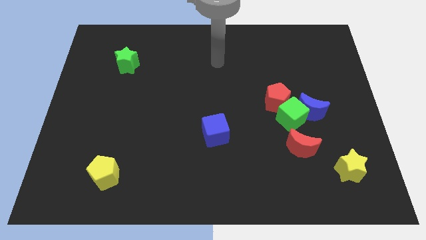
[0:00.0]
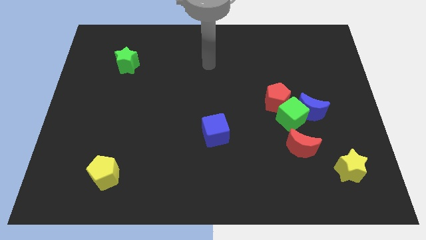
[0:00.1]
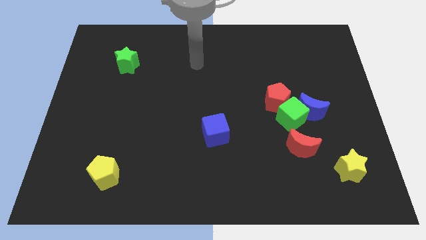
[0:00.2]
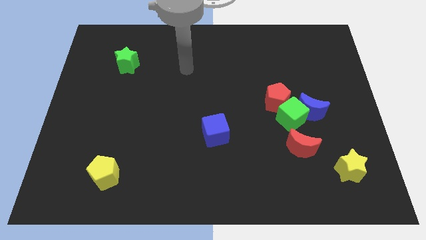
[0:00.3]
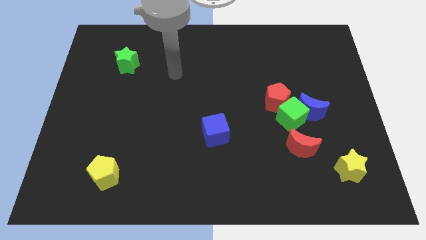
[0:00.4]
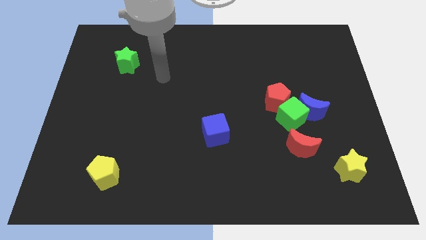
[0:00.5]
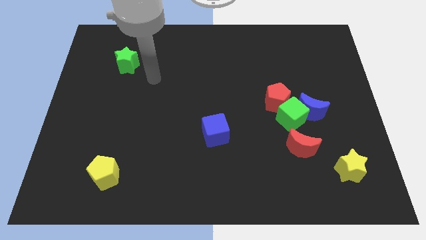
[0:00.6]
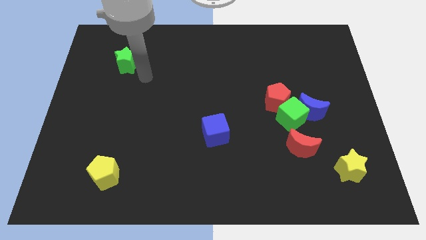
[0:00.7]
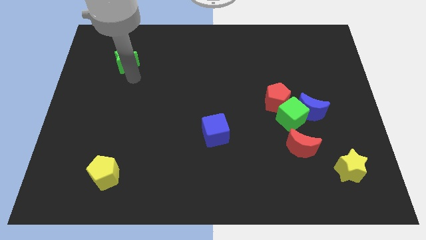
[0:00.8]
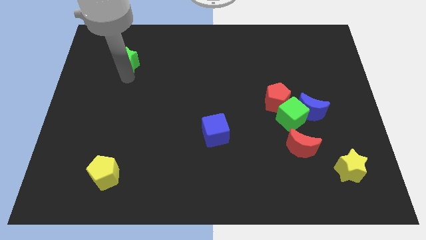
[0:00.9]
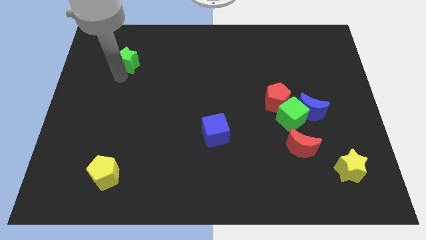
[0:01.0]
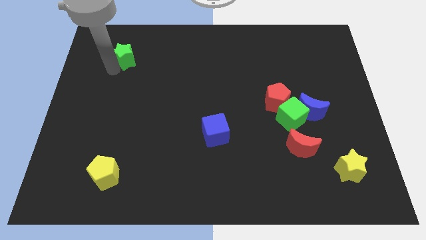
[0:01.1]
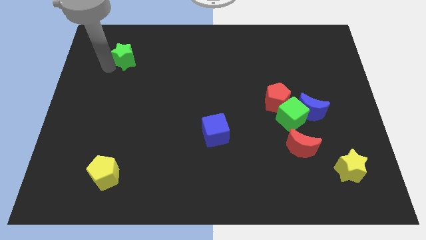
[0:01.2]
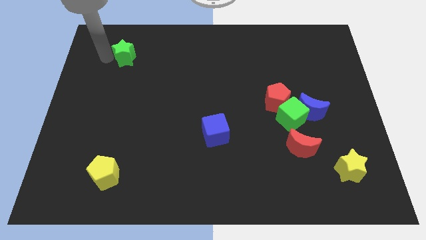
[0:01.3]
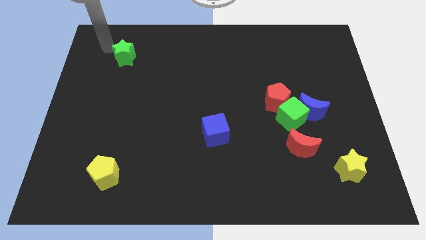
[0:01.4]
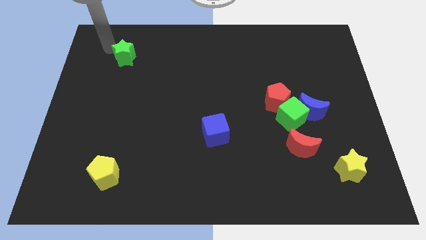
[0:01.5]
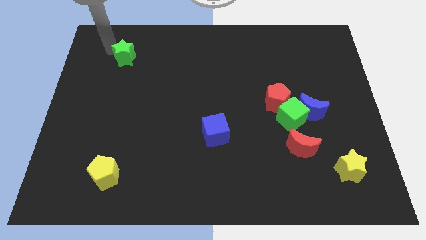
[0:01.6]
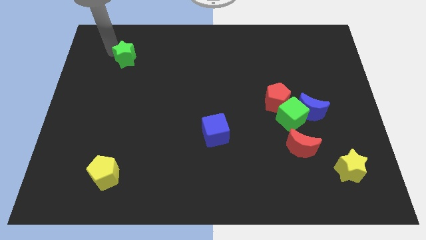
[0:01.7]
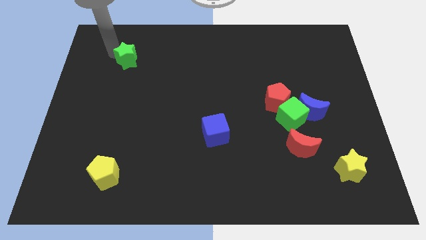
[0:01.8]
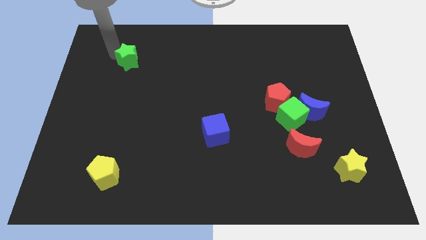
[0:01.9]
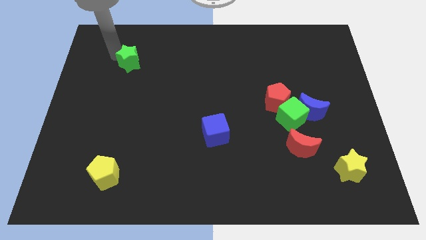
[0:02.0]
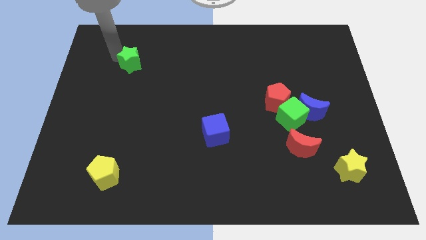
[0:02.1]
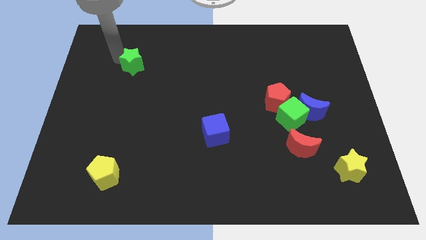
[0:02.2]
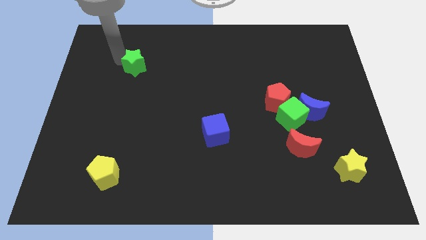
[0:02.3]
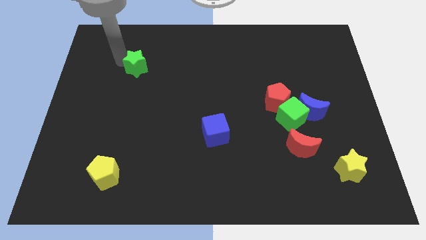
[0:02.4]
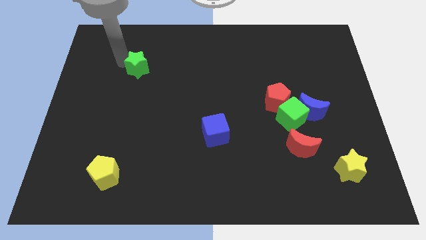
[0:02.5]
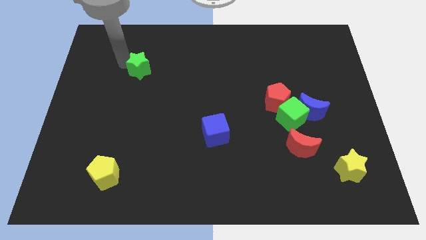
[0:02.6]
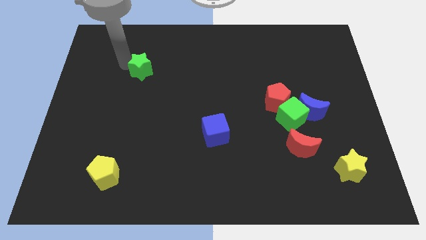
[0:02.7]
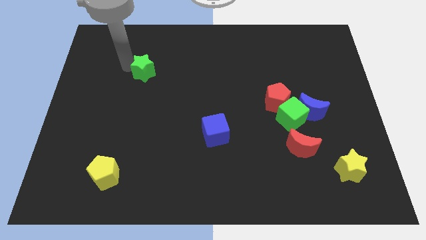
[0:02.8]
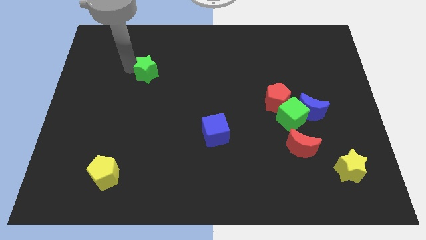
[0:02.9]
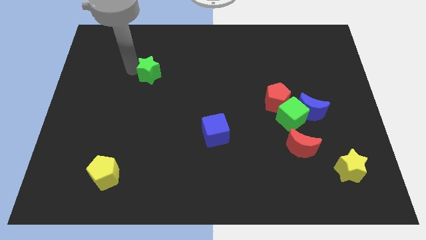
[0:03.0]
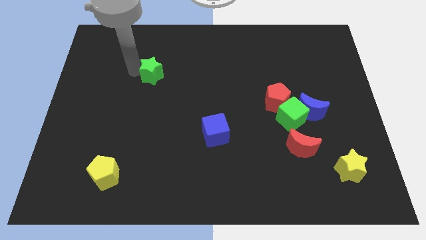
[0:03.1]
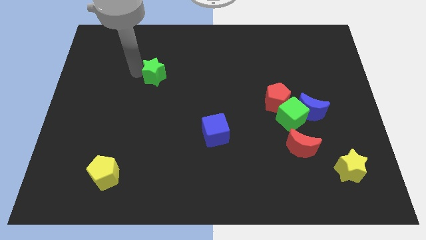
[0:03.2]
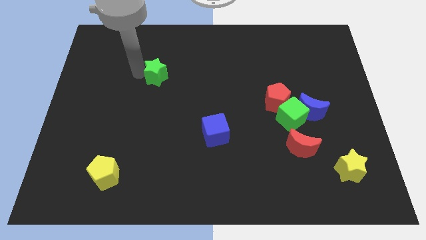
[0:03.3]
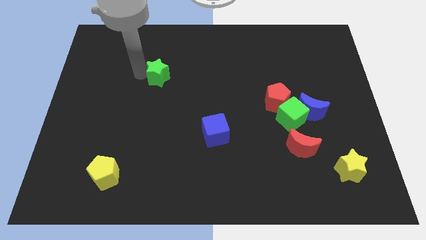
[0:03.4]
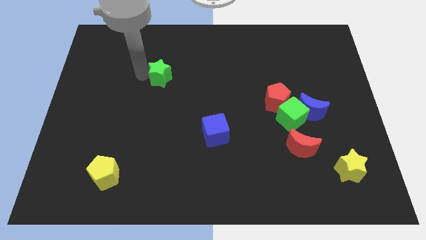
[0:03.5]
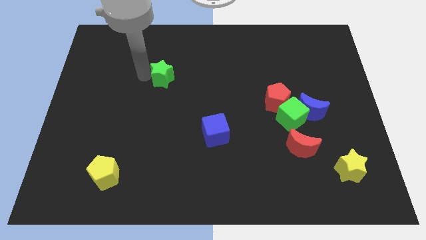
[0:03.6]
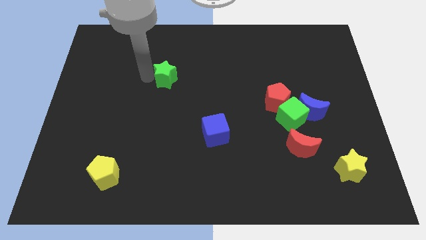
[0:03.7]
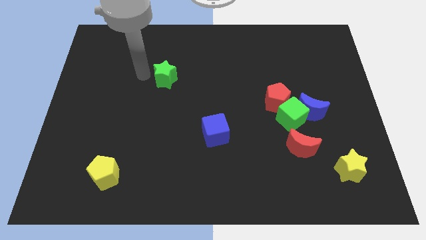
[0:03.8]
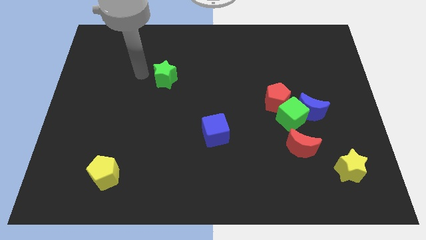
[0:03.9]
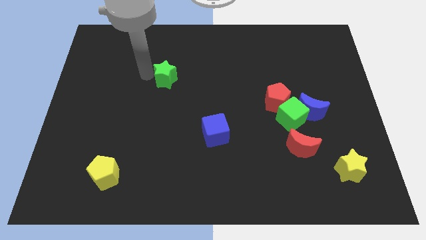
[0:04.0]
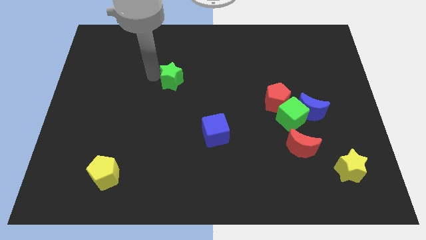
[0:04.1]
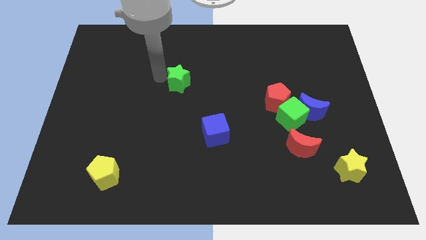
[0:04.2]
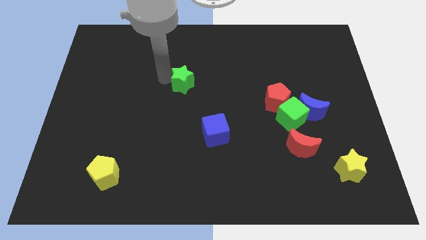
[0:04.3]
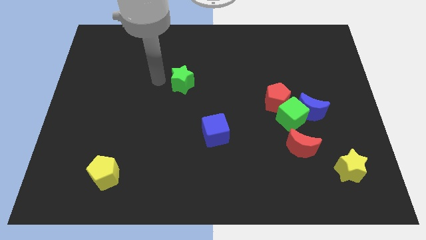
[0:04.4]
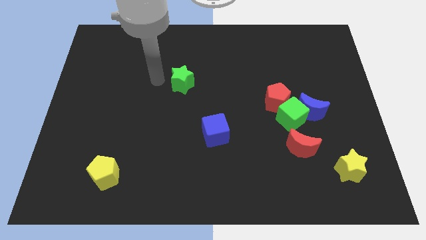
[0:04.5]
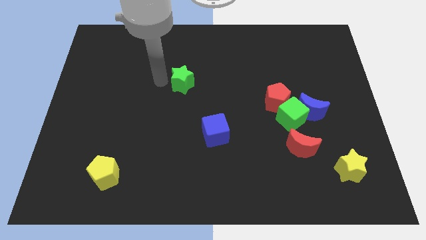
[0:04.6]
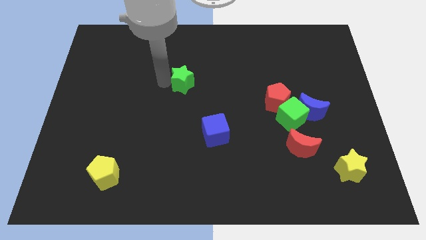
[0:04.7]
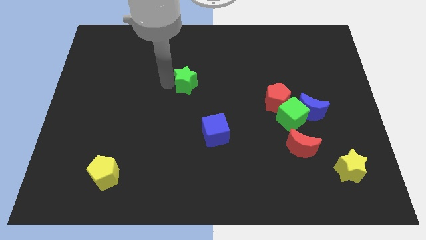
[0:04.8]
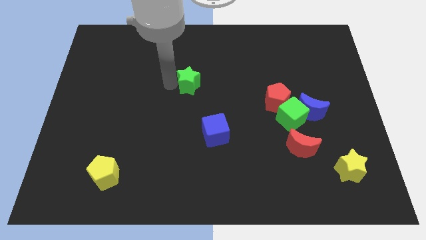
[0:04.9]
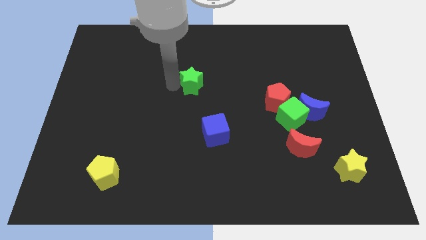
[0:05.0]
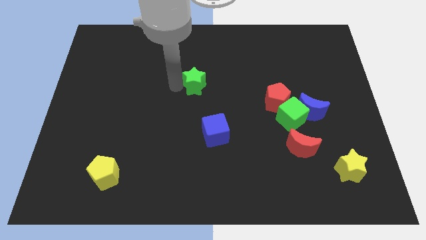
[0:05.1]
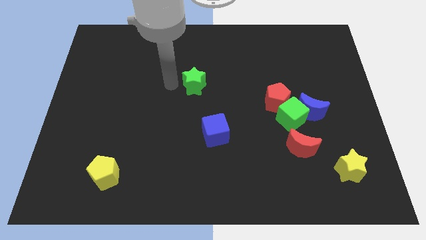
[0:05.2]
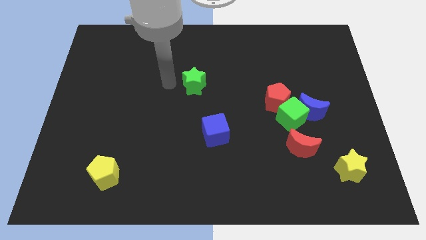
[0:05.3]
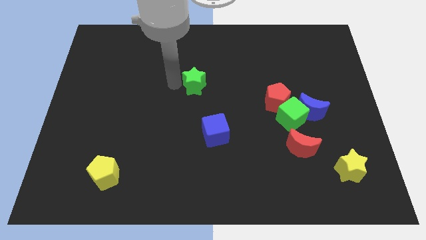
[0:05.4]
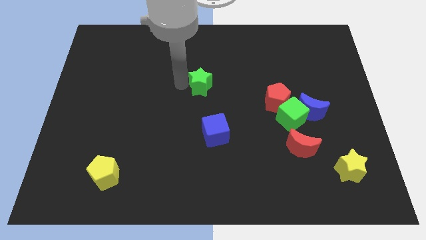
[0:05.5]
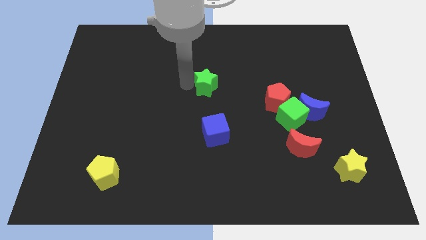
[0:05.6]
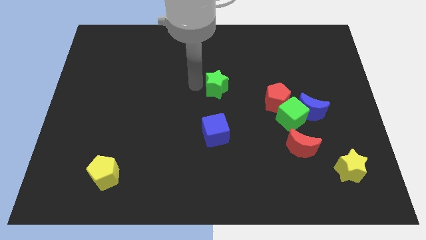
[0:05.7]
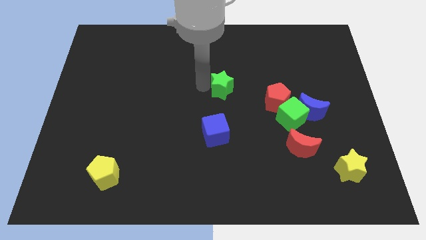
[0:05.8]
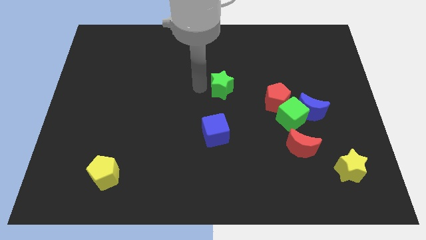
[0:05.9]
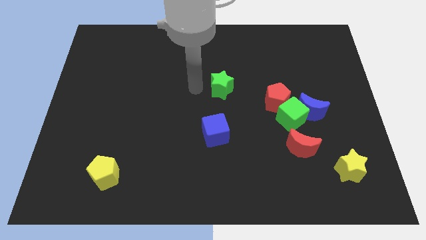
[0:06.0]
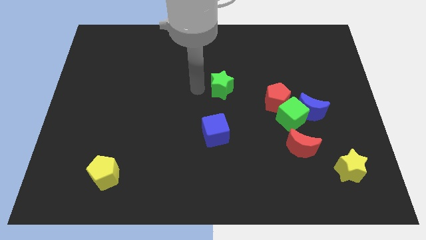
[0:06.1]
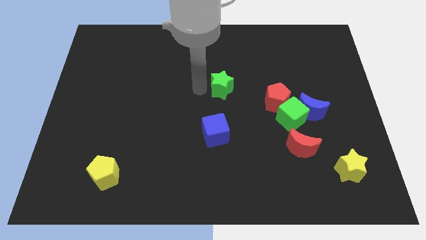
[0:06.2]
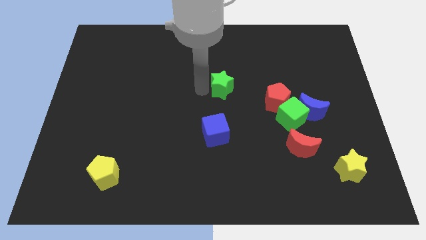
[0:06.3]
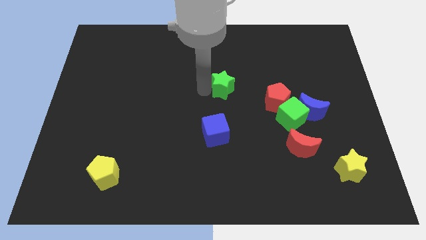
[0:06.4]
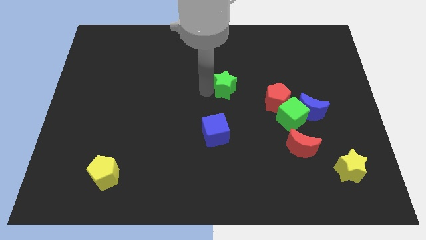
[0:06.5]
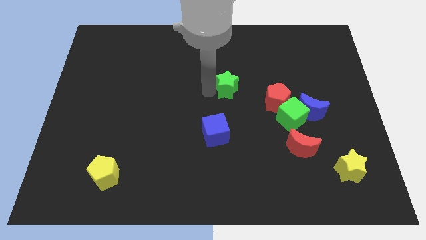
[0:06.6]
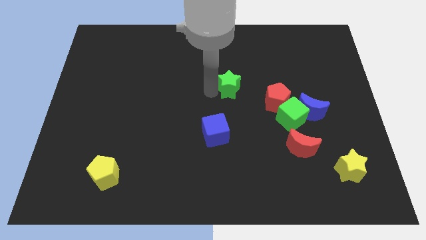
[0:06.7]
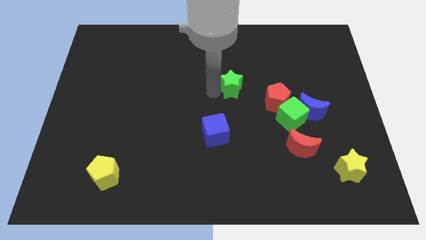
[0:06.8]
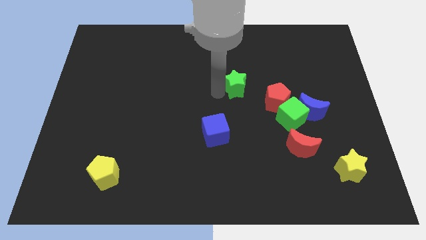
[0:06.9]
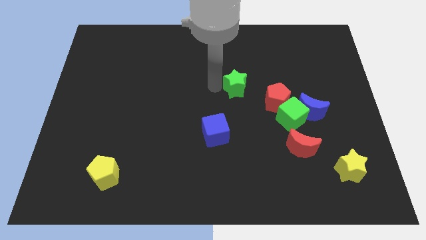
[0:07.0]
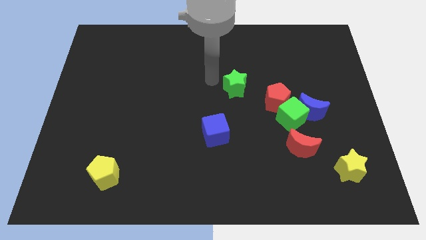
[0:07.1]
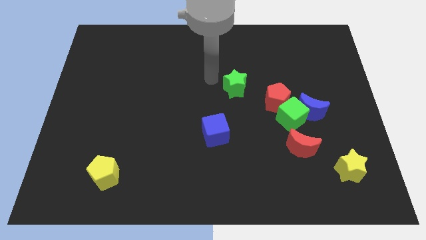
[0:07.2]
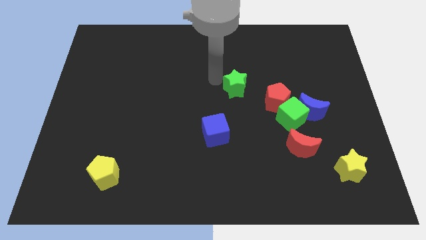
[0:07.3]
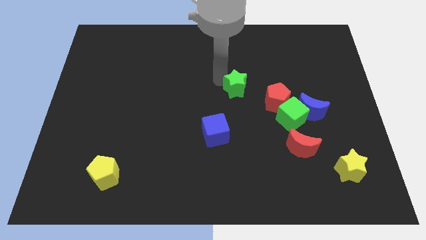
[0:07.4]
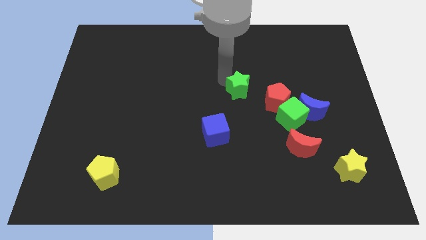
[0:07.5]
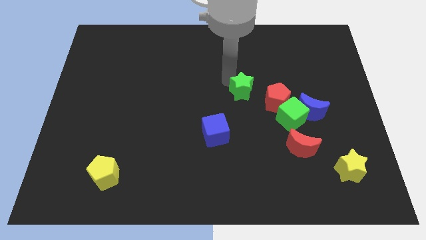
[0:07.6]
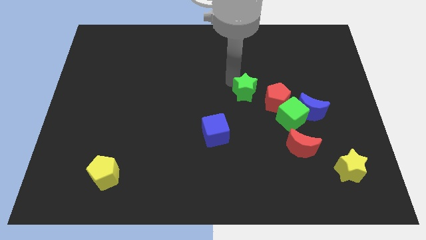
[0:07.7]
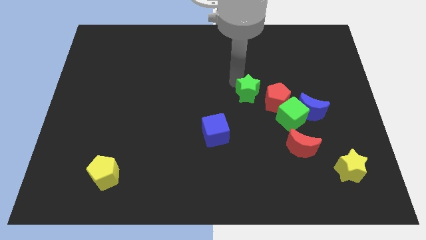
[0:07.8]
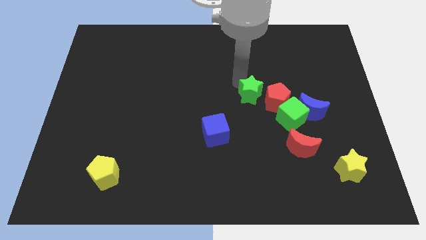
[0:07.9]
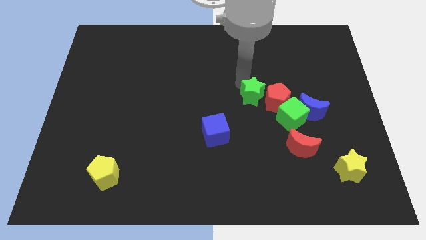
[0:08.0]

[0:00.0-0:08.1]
push the green star close to the red pentagon
